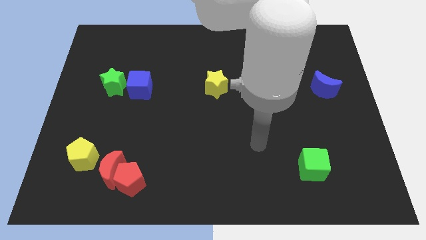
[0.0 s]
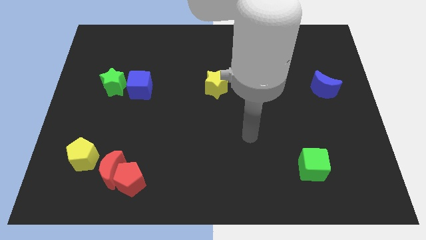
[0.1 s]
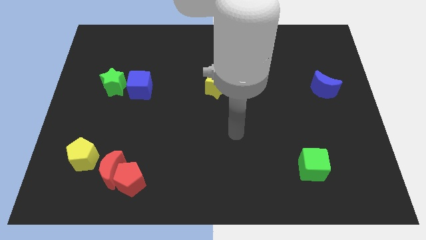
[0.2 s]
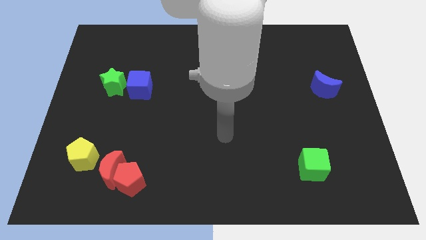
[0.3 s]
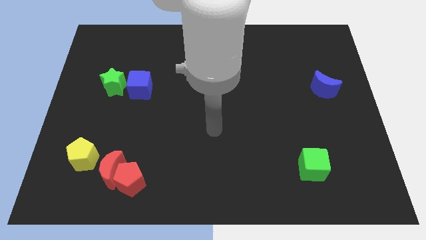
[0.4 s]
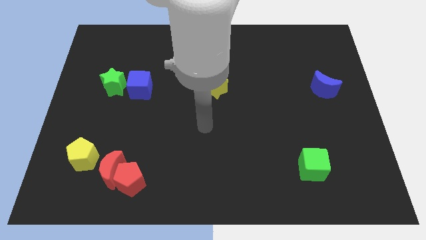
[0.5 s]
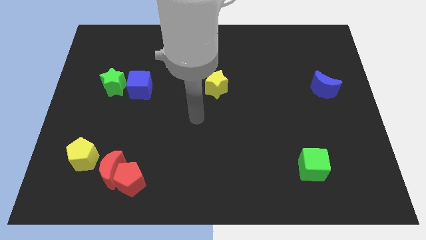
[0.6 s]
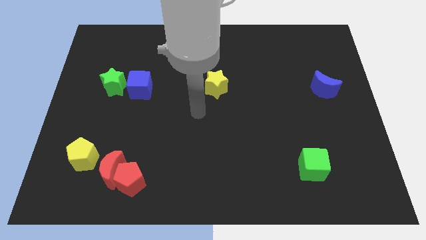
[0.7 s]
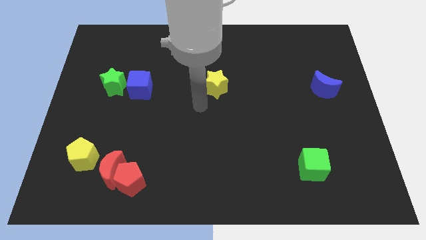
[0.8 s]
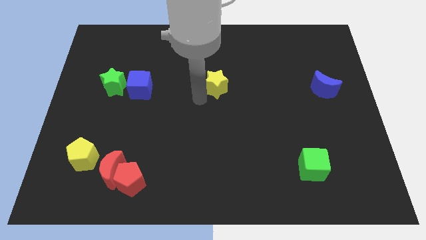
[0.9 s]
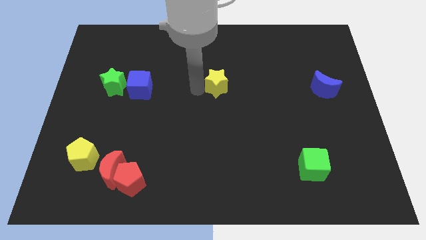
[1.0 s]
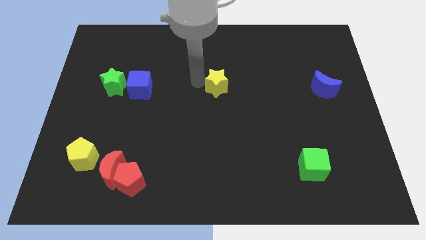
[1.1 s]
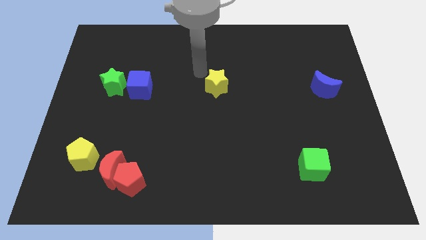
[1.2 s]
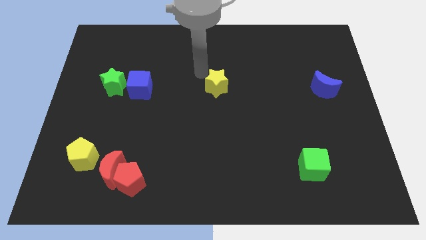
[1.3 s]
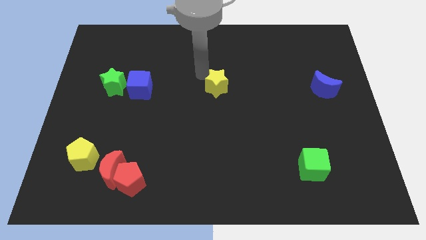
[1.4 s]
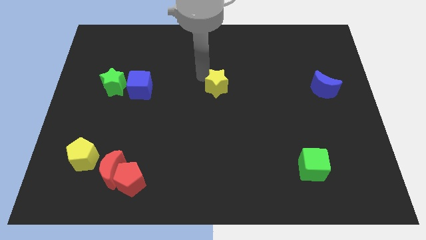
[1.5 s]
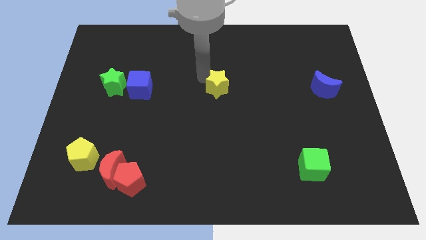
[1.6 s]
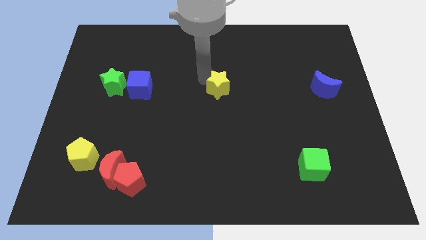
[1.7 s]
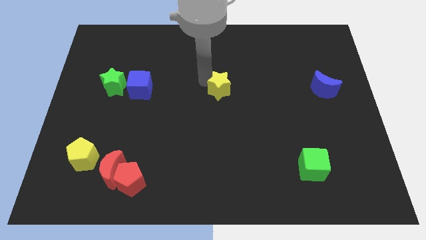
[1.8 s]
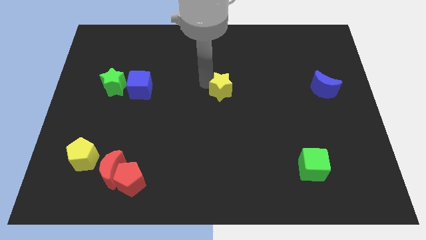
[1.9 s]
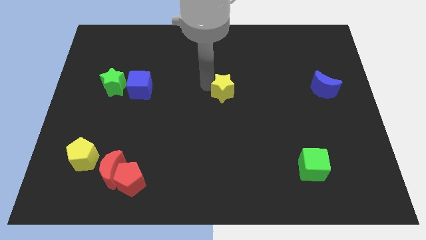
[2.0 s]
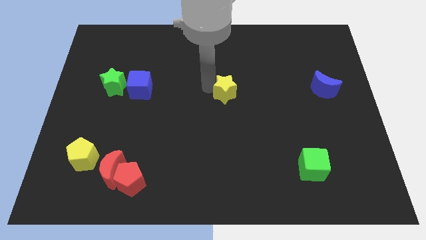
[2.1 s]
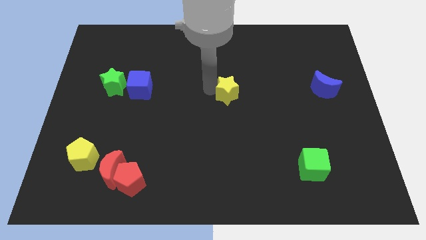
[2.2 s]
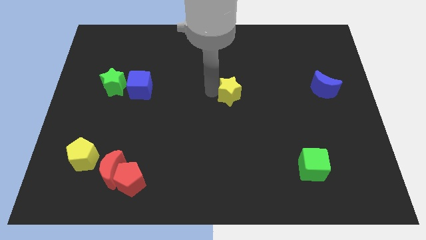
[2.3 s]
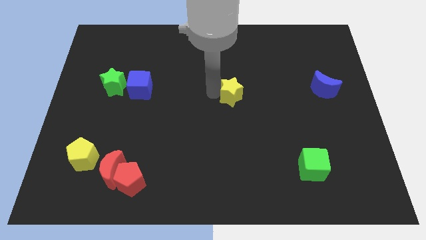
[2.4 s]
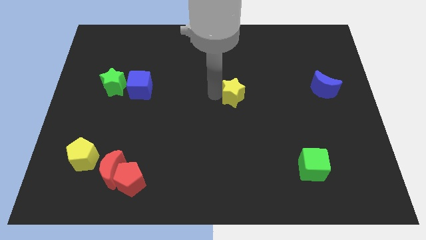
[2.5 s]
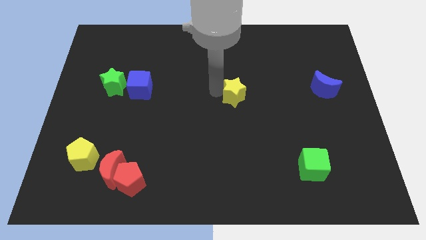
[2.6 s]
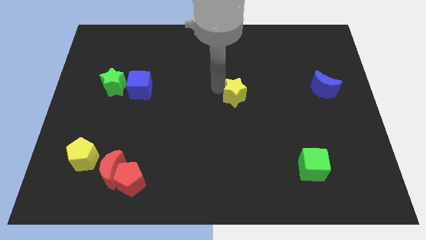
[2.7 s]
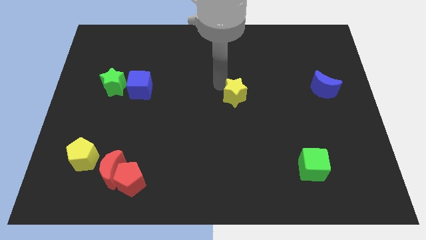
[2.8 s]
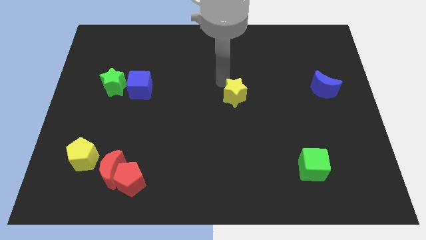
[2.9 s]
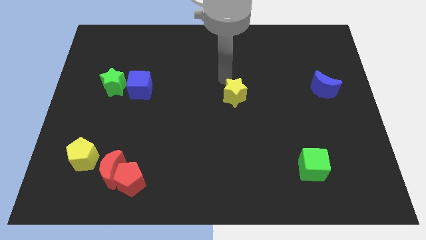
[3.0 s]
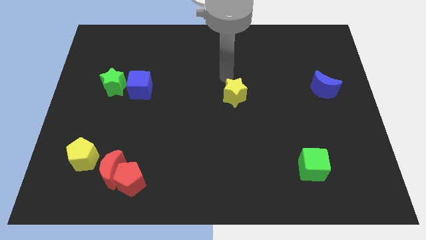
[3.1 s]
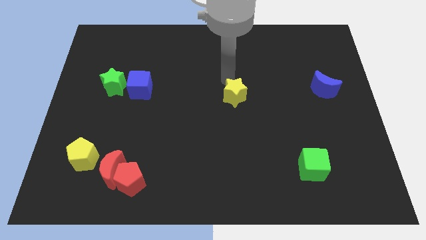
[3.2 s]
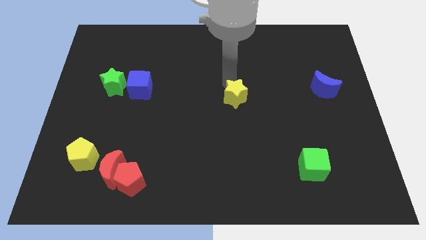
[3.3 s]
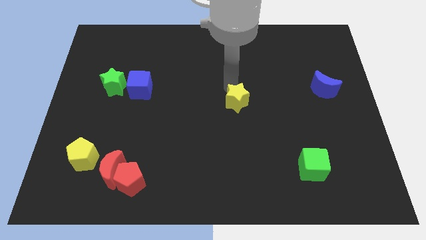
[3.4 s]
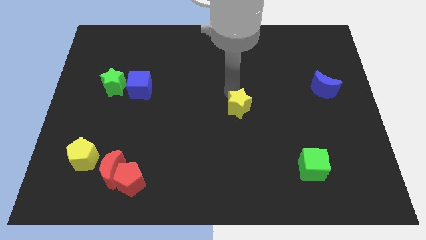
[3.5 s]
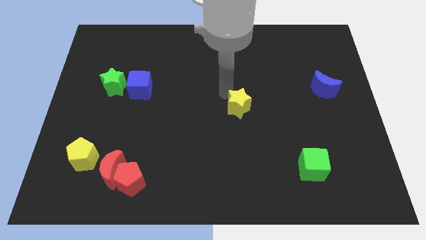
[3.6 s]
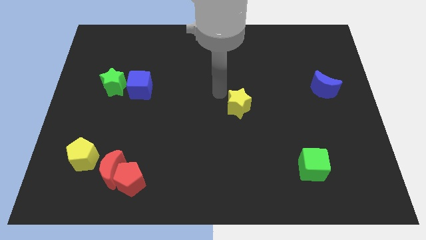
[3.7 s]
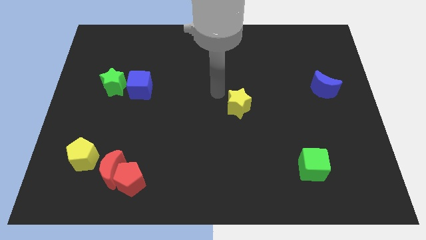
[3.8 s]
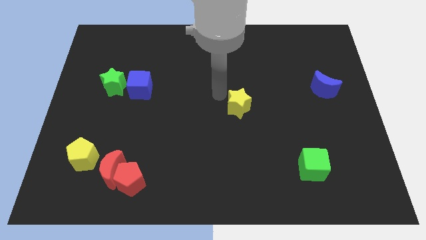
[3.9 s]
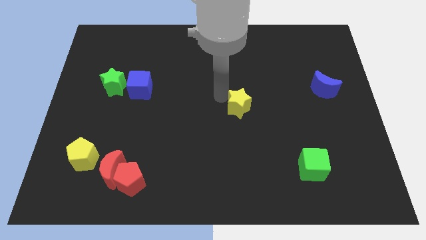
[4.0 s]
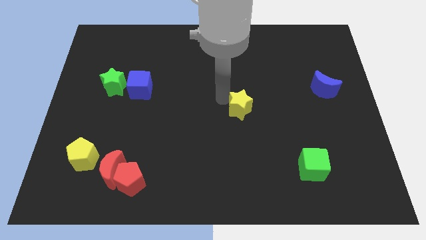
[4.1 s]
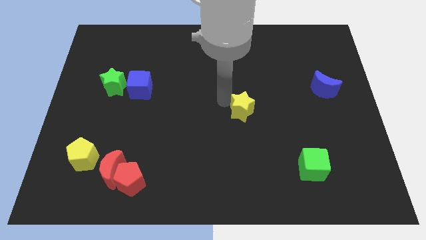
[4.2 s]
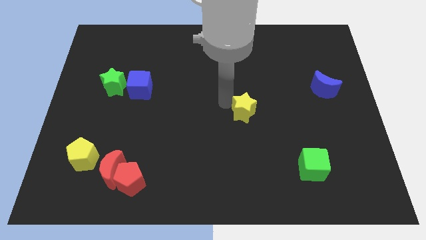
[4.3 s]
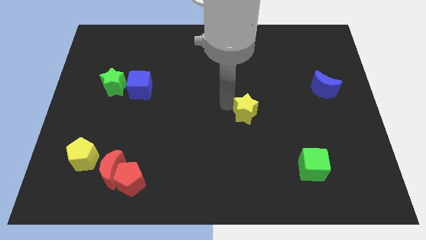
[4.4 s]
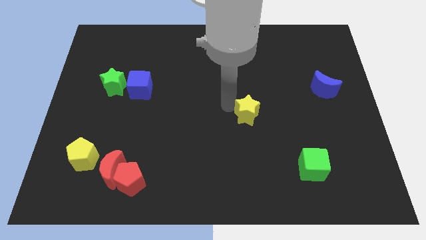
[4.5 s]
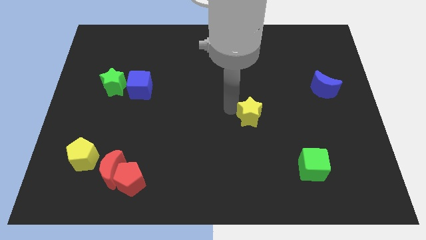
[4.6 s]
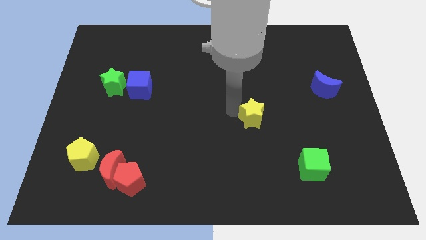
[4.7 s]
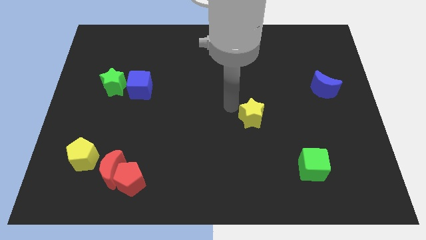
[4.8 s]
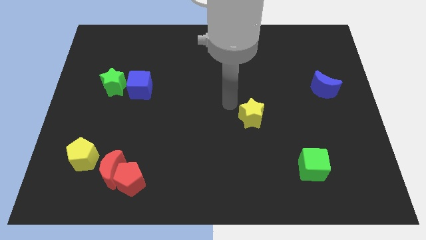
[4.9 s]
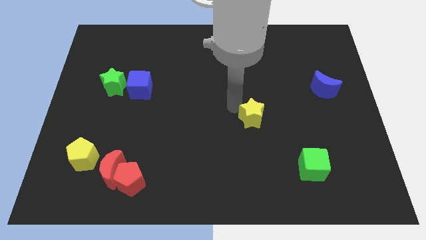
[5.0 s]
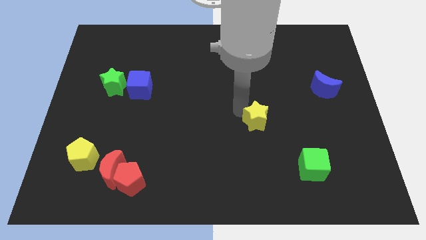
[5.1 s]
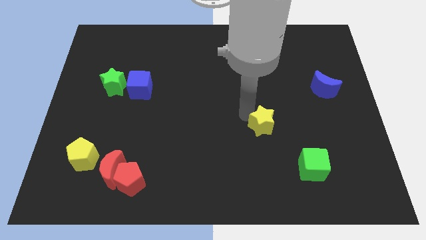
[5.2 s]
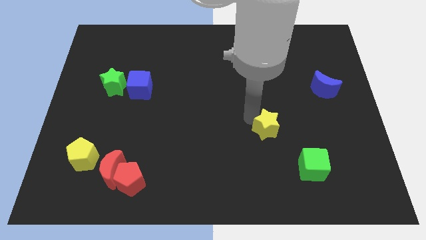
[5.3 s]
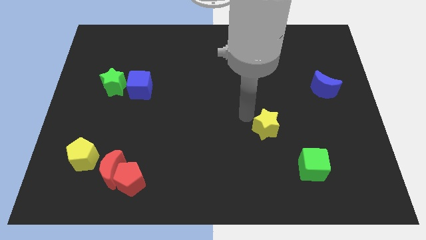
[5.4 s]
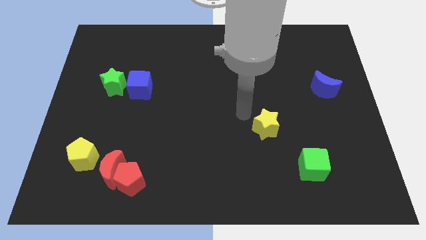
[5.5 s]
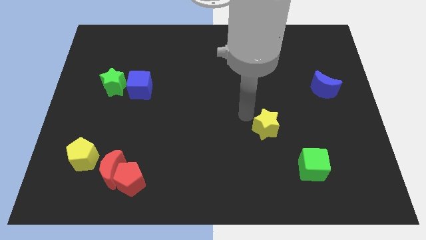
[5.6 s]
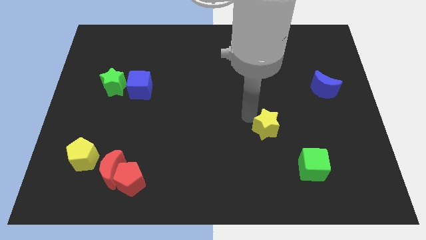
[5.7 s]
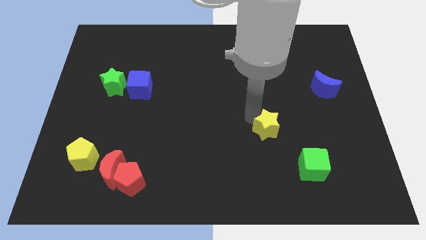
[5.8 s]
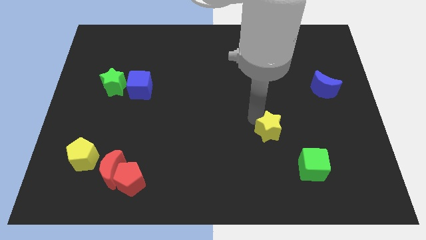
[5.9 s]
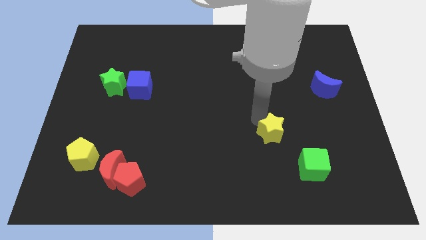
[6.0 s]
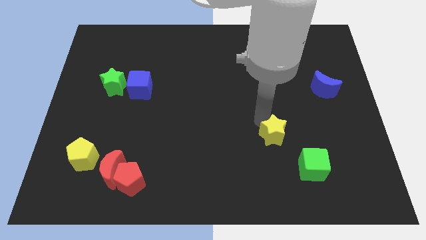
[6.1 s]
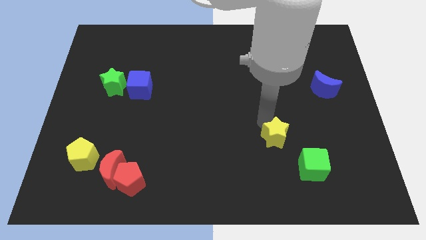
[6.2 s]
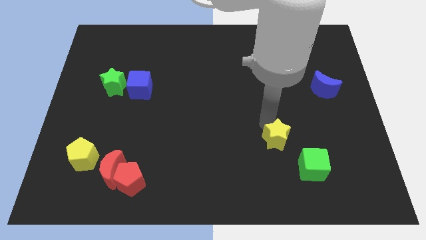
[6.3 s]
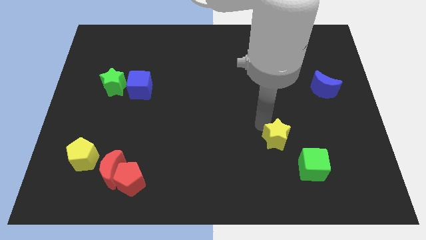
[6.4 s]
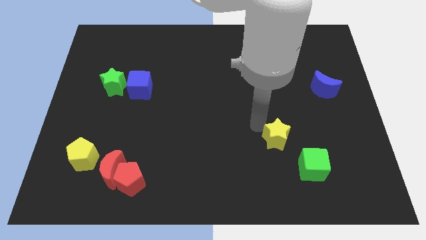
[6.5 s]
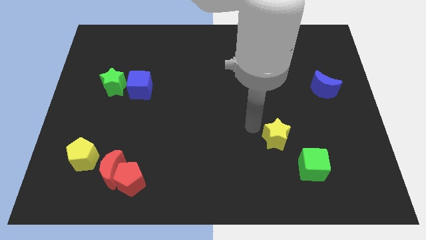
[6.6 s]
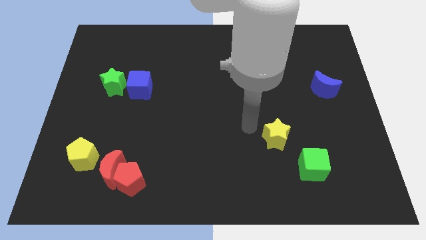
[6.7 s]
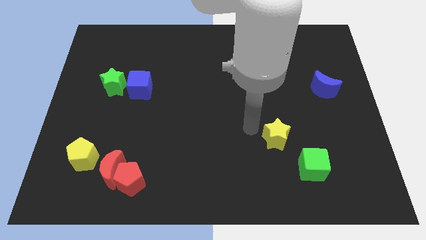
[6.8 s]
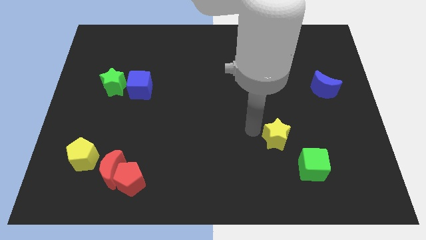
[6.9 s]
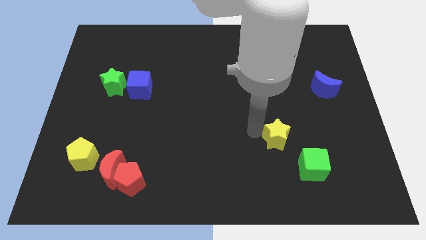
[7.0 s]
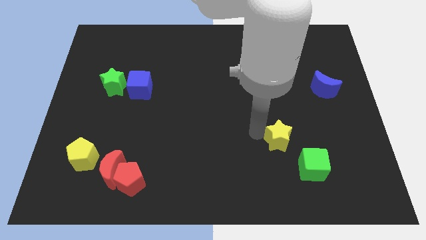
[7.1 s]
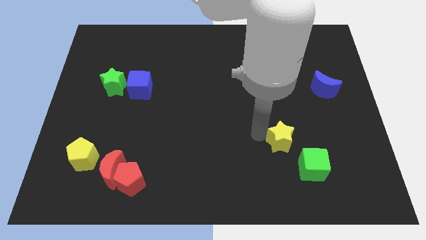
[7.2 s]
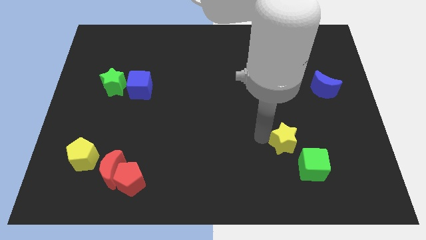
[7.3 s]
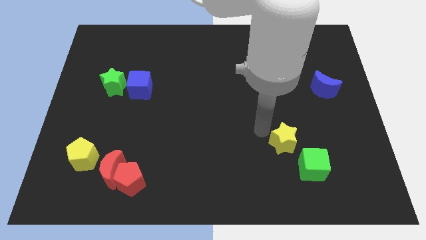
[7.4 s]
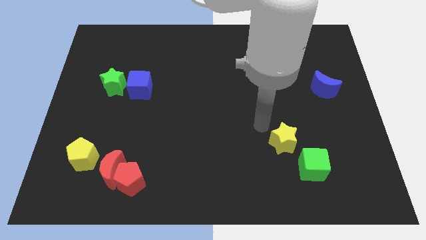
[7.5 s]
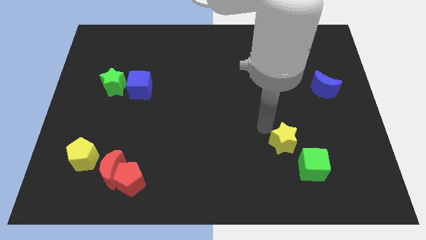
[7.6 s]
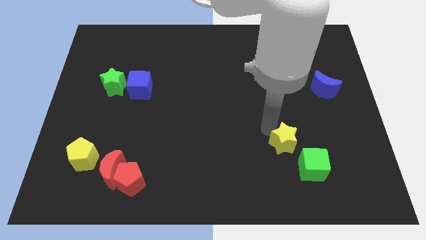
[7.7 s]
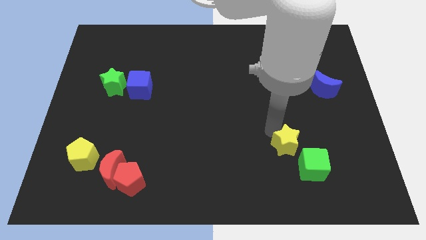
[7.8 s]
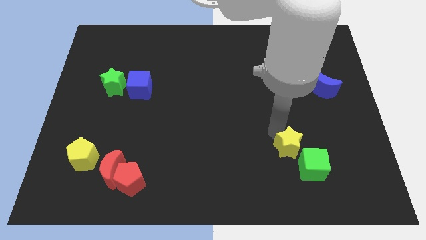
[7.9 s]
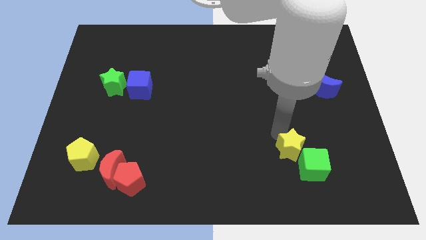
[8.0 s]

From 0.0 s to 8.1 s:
push the yellow star towards the green cube
